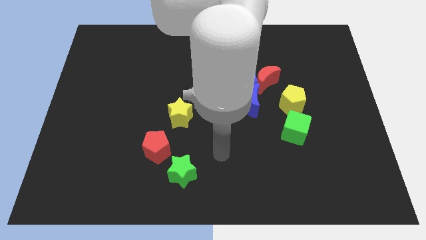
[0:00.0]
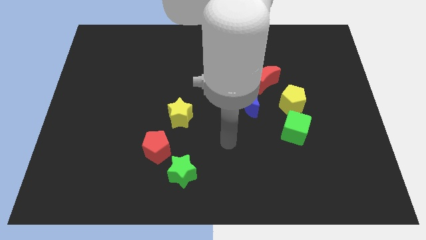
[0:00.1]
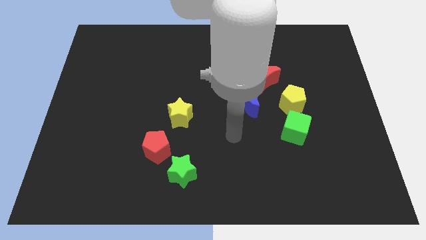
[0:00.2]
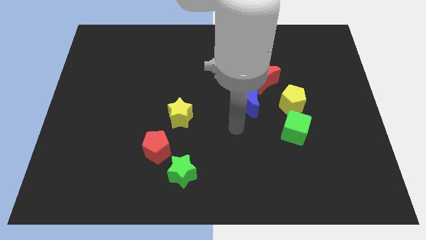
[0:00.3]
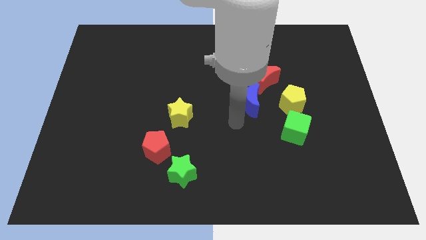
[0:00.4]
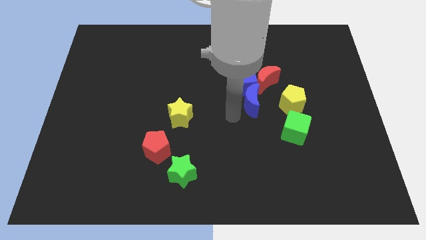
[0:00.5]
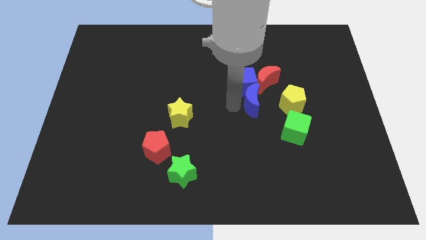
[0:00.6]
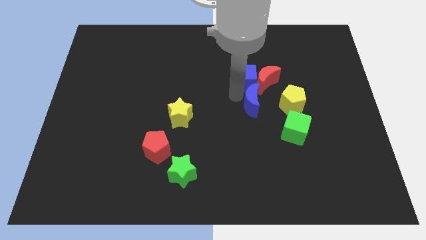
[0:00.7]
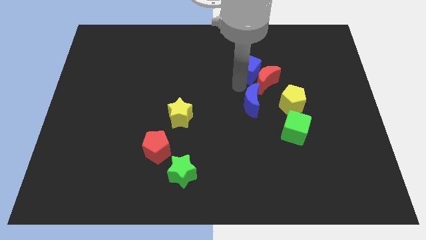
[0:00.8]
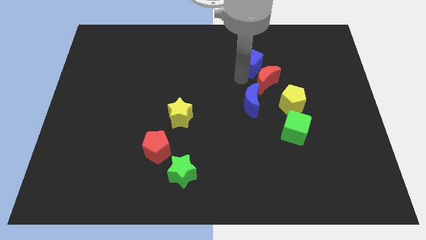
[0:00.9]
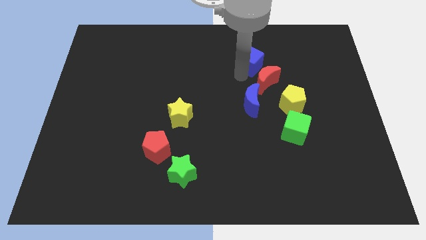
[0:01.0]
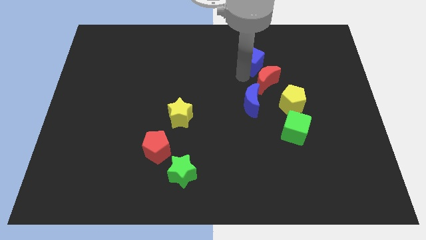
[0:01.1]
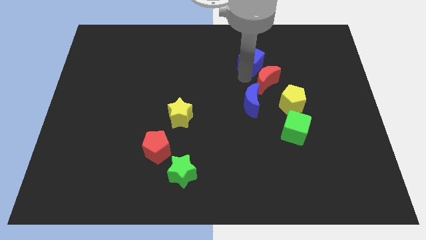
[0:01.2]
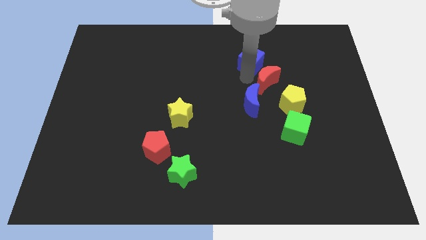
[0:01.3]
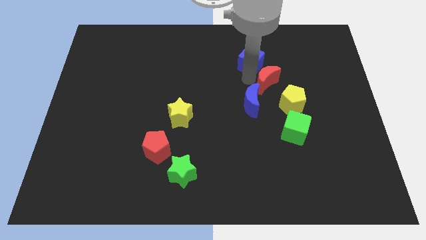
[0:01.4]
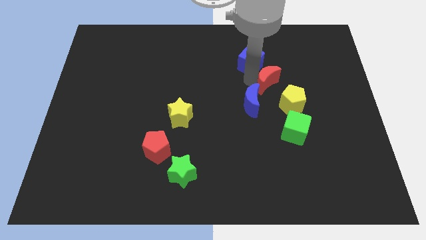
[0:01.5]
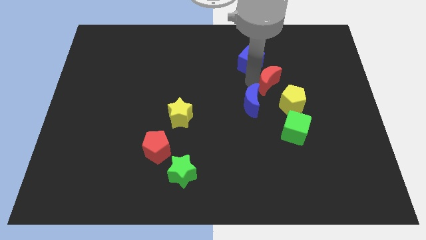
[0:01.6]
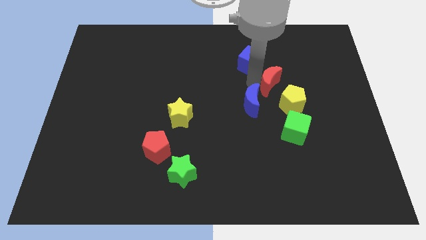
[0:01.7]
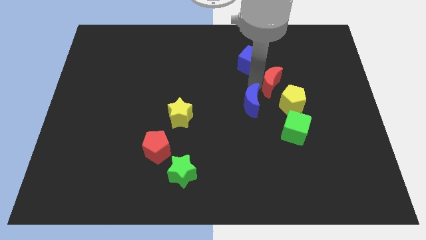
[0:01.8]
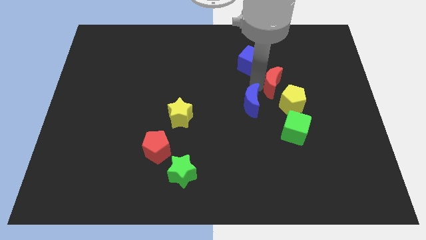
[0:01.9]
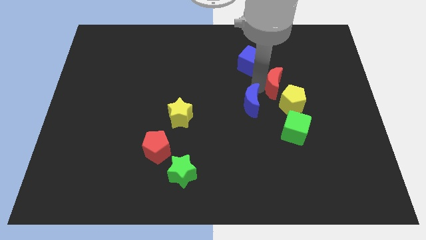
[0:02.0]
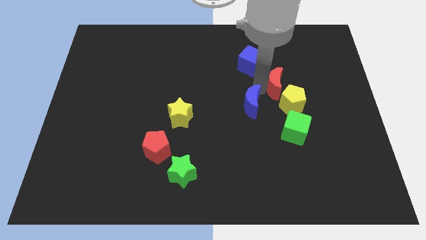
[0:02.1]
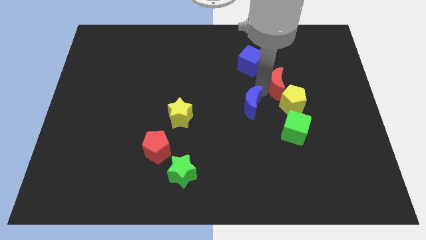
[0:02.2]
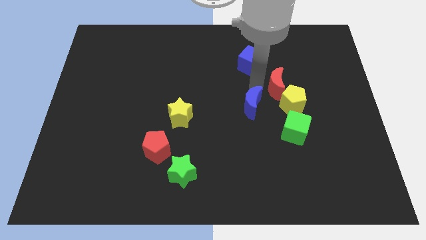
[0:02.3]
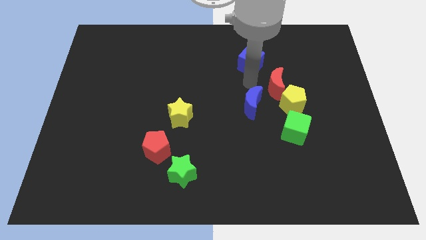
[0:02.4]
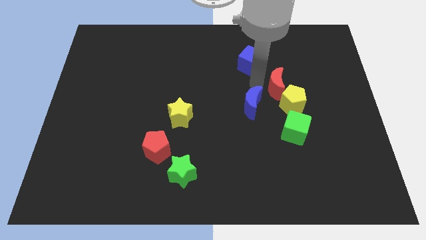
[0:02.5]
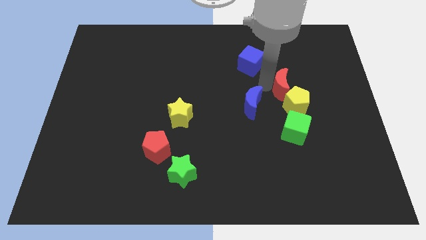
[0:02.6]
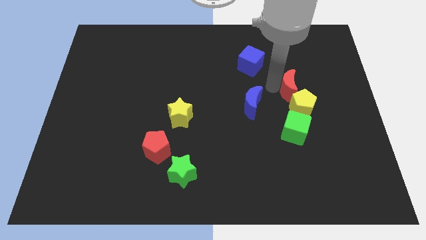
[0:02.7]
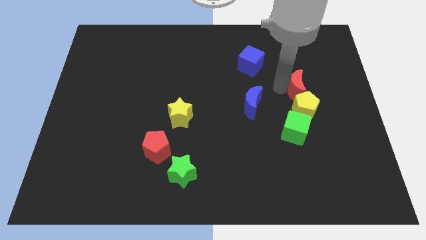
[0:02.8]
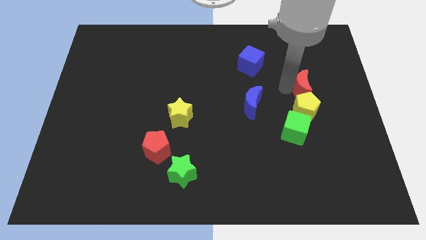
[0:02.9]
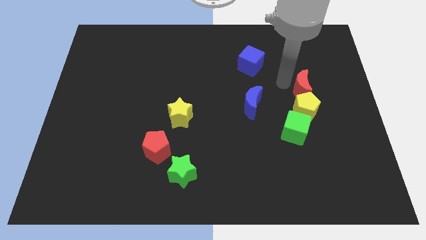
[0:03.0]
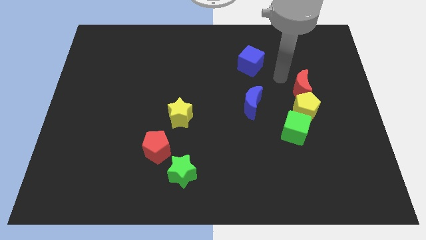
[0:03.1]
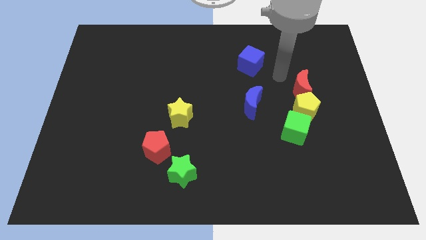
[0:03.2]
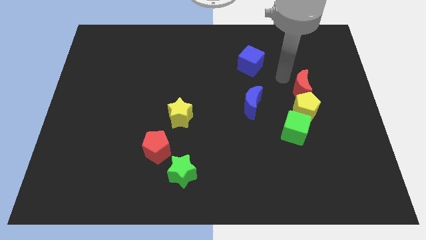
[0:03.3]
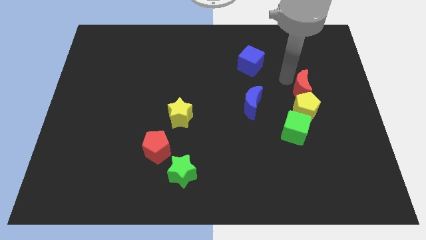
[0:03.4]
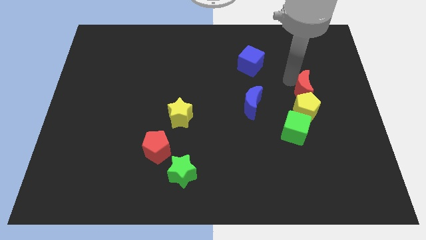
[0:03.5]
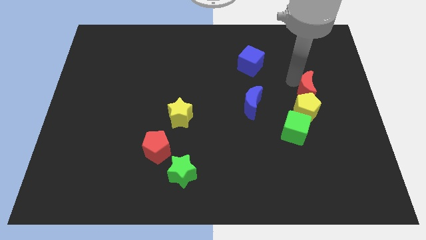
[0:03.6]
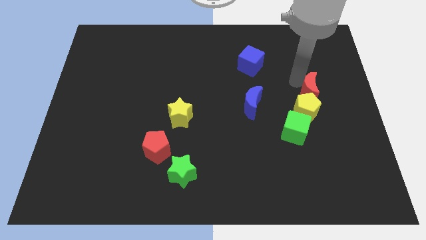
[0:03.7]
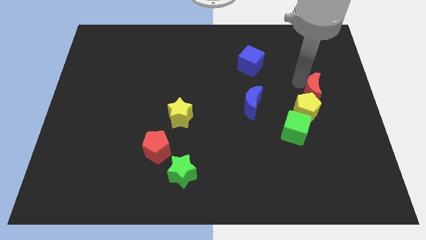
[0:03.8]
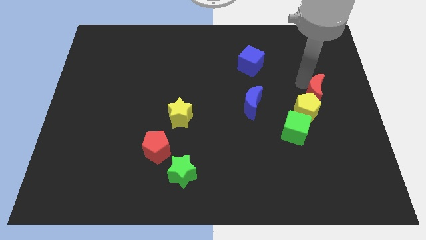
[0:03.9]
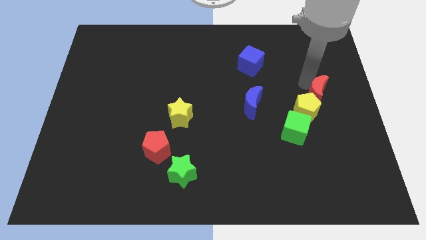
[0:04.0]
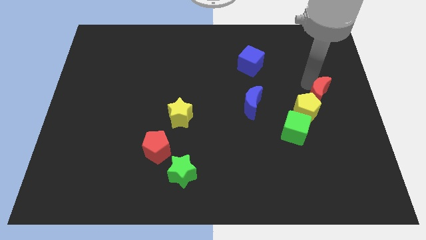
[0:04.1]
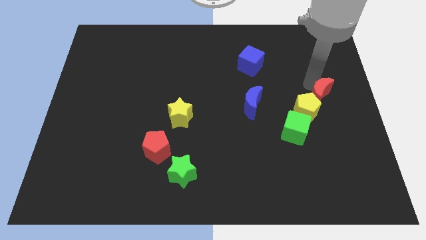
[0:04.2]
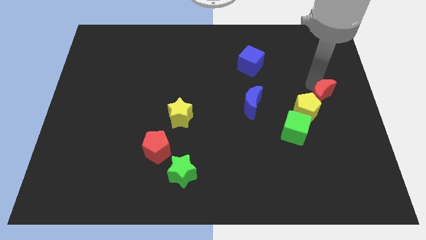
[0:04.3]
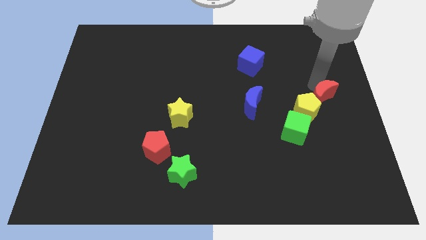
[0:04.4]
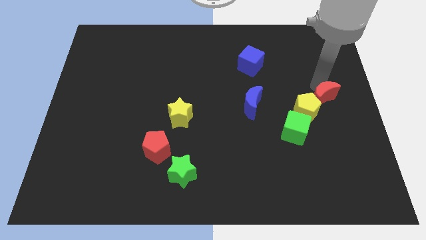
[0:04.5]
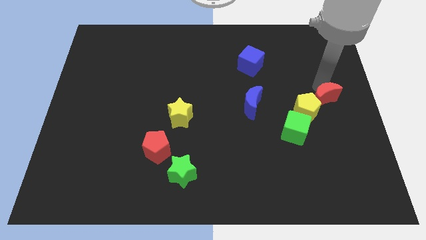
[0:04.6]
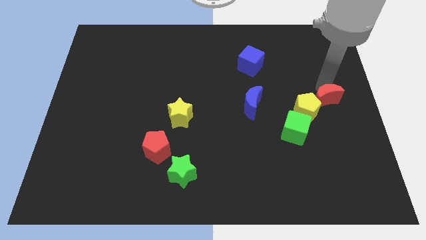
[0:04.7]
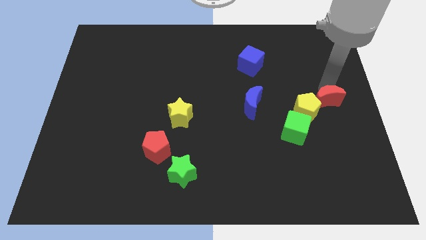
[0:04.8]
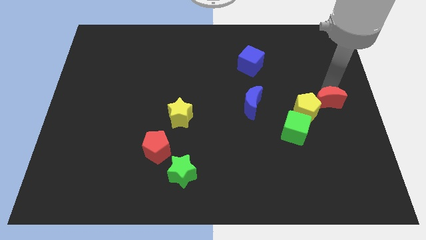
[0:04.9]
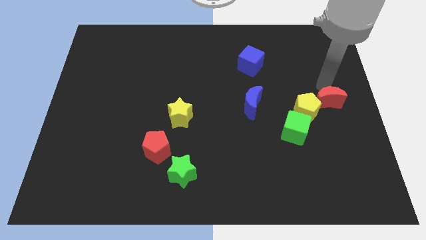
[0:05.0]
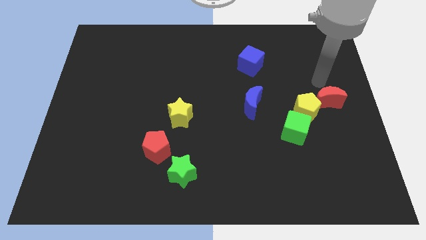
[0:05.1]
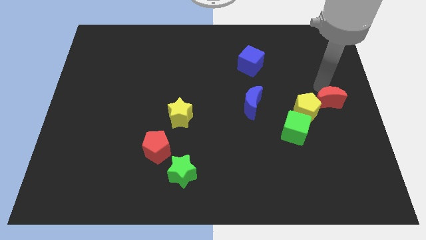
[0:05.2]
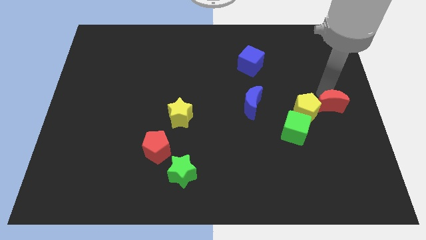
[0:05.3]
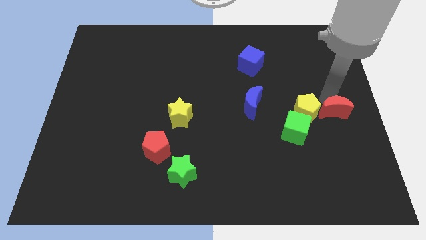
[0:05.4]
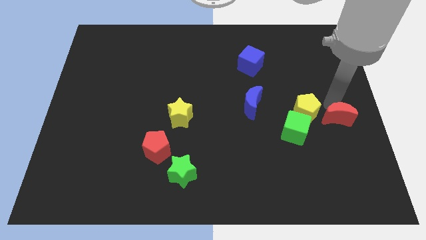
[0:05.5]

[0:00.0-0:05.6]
move the red moon to the right side of the green cube
